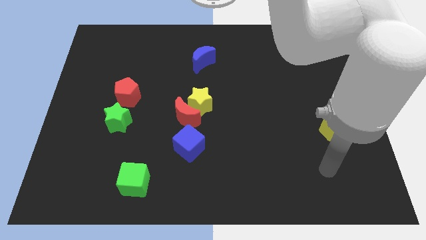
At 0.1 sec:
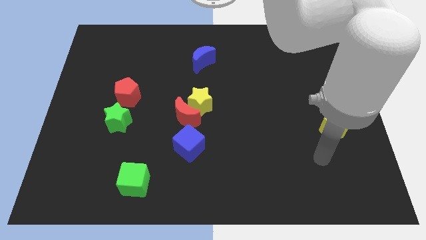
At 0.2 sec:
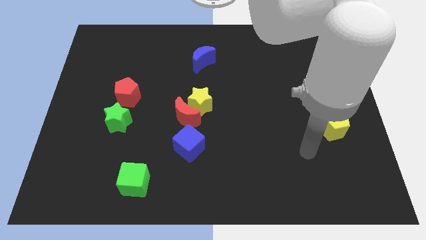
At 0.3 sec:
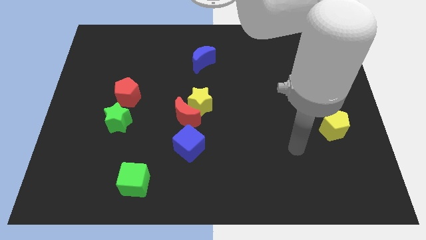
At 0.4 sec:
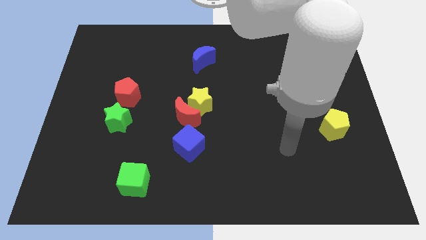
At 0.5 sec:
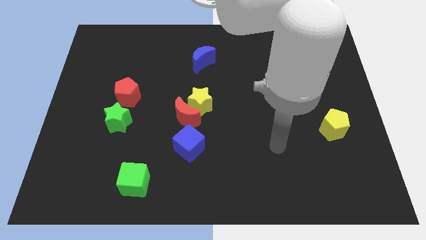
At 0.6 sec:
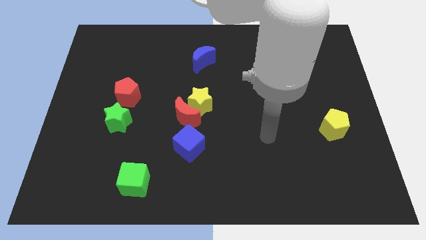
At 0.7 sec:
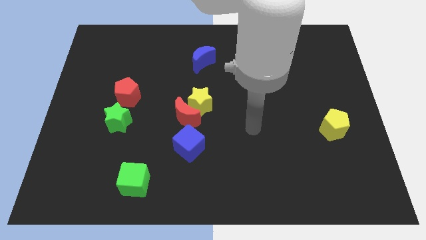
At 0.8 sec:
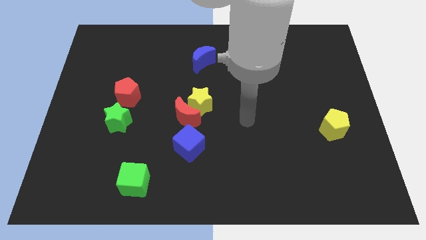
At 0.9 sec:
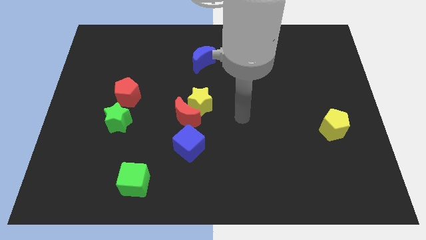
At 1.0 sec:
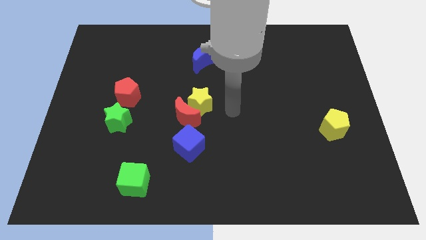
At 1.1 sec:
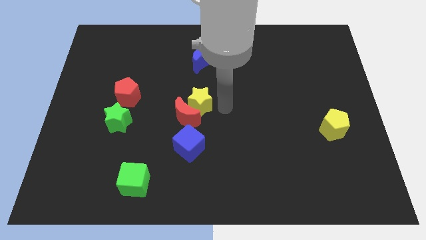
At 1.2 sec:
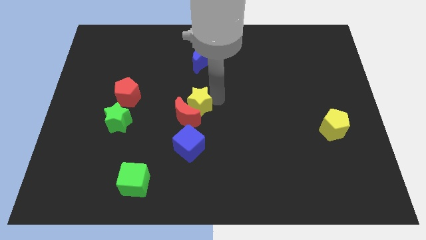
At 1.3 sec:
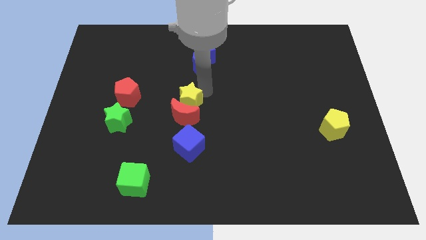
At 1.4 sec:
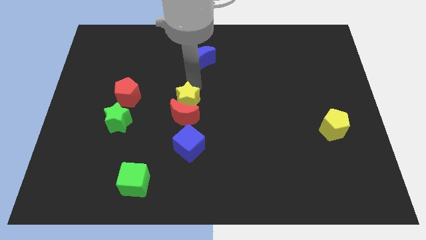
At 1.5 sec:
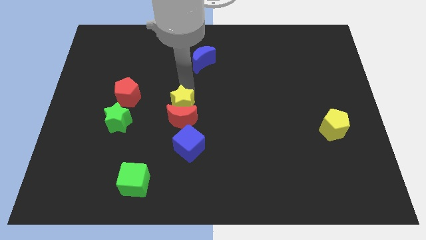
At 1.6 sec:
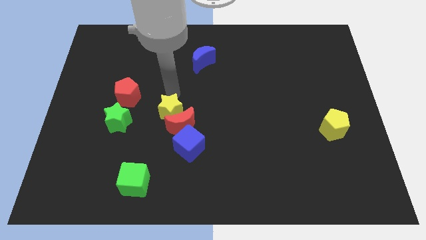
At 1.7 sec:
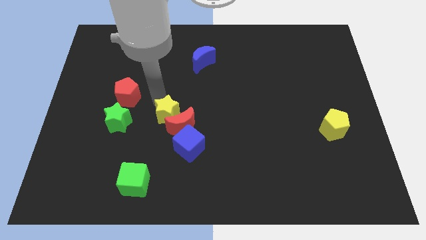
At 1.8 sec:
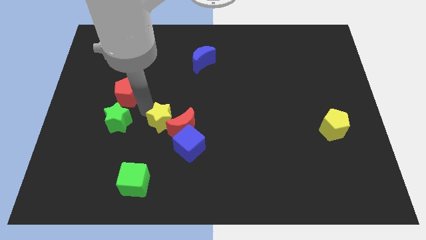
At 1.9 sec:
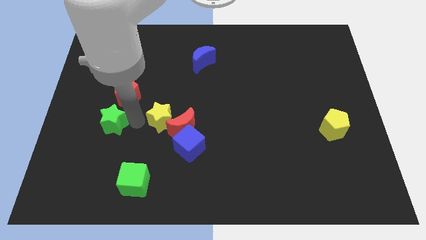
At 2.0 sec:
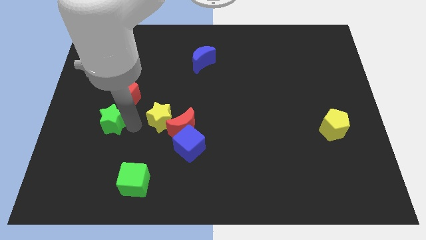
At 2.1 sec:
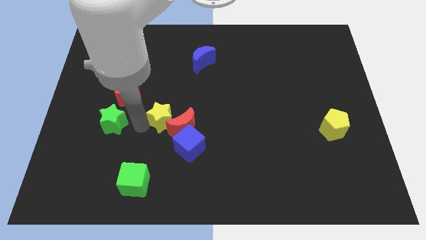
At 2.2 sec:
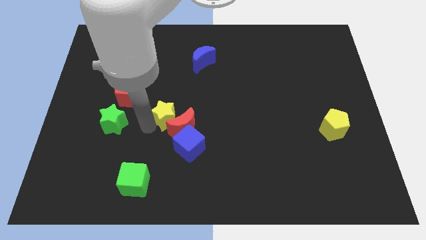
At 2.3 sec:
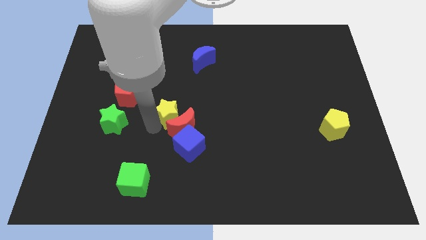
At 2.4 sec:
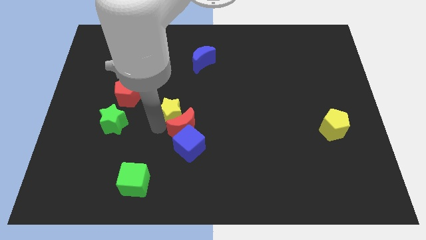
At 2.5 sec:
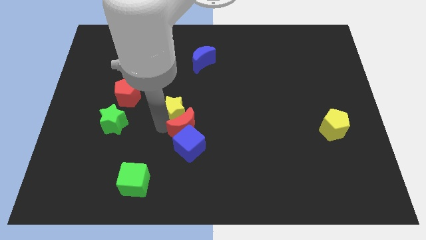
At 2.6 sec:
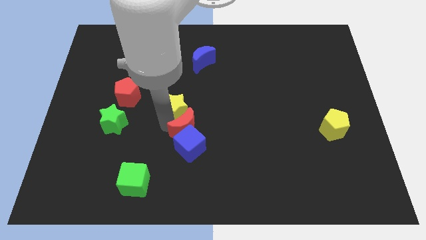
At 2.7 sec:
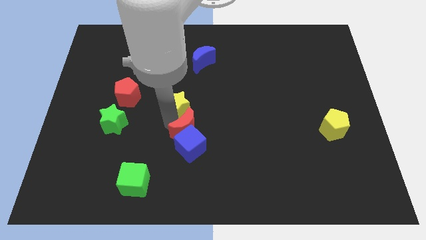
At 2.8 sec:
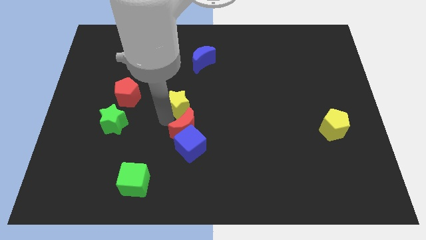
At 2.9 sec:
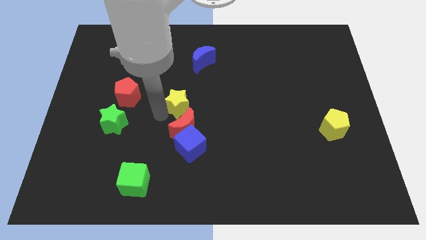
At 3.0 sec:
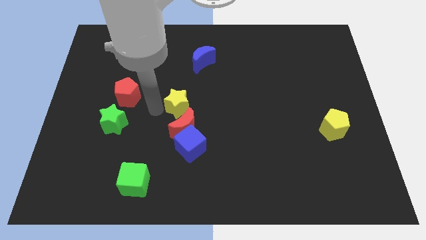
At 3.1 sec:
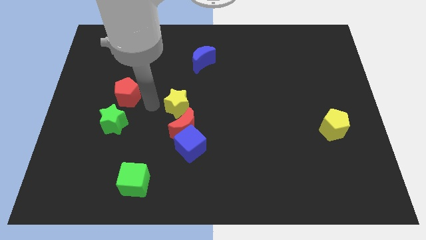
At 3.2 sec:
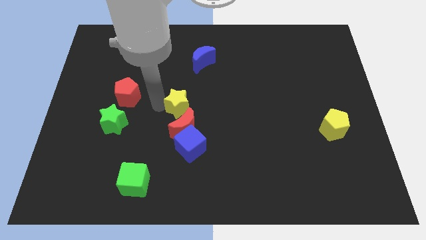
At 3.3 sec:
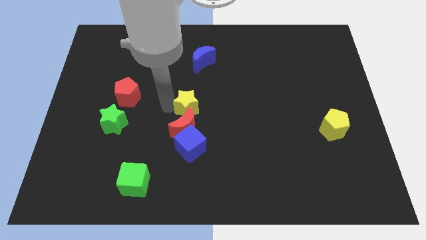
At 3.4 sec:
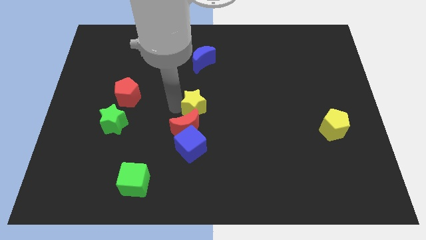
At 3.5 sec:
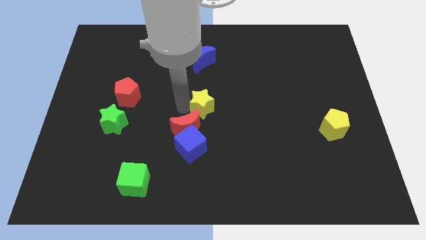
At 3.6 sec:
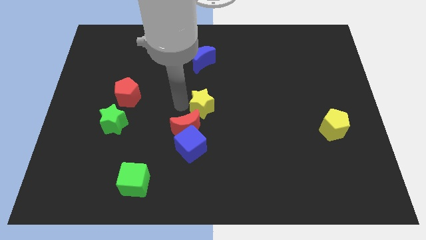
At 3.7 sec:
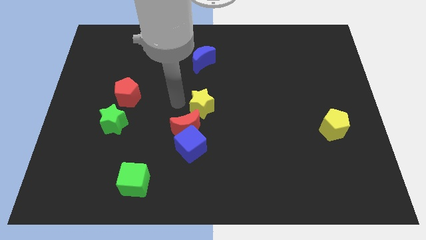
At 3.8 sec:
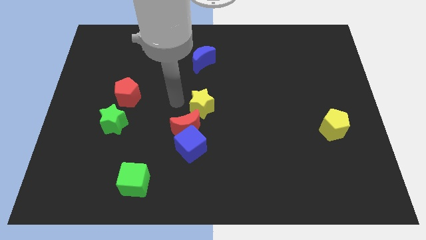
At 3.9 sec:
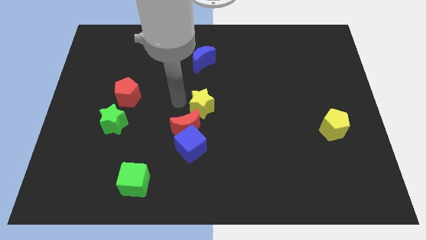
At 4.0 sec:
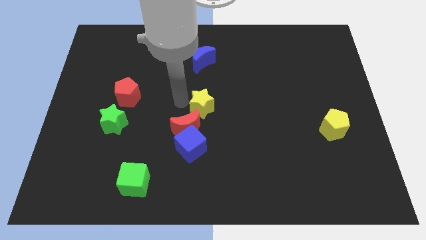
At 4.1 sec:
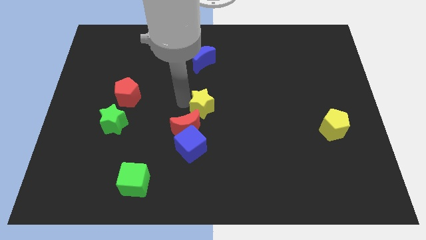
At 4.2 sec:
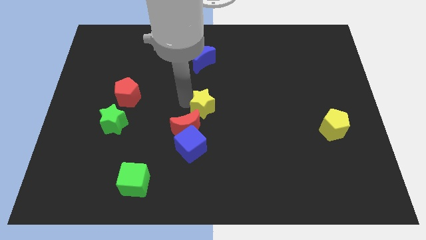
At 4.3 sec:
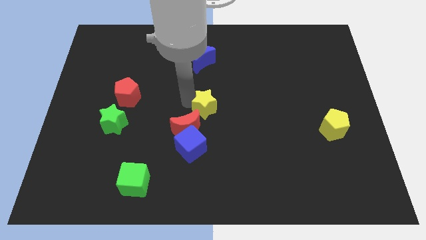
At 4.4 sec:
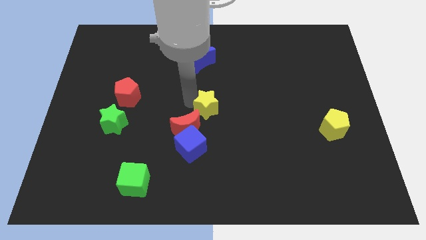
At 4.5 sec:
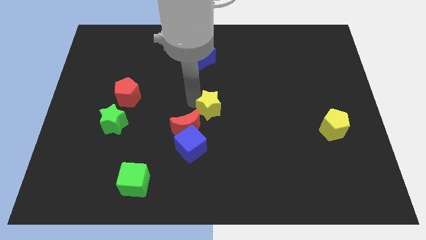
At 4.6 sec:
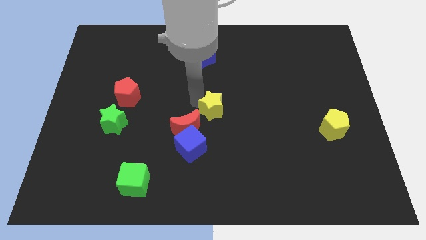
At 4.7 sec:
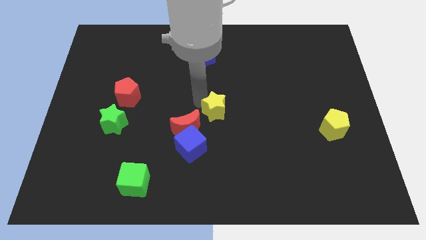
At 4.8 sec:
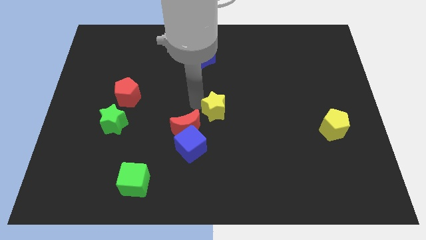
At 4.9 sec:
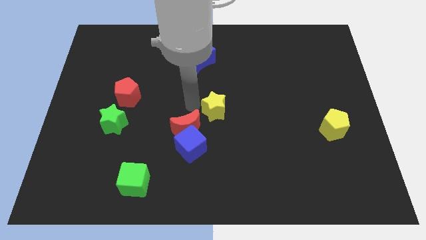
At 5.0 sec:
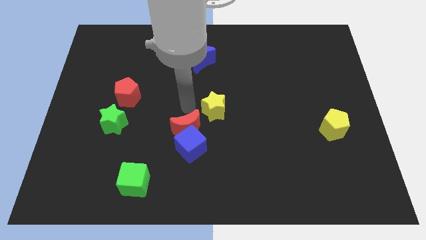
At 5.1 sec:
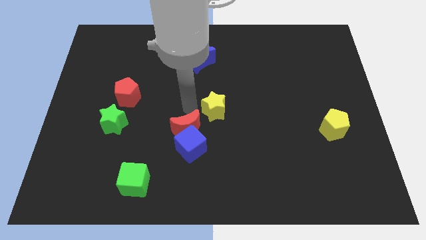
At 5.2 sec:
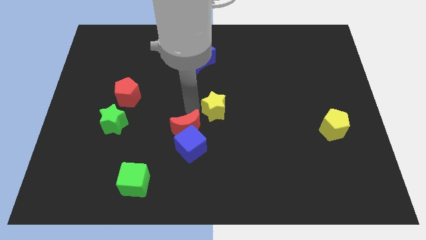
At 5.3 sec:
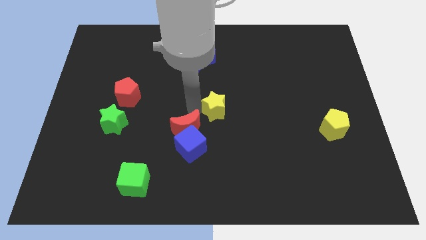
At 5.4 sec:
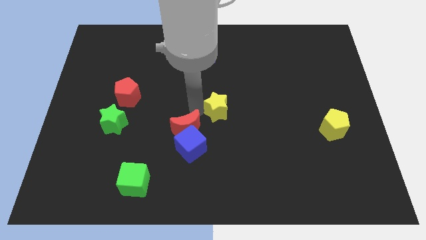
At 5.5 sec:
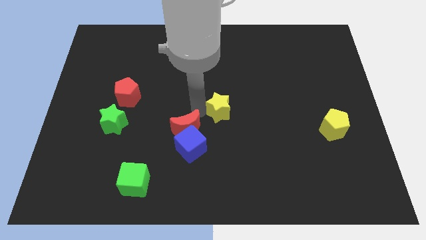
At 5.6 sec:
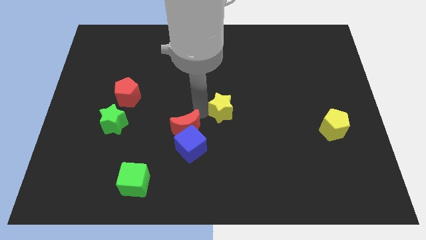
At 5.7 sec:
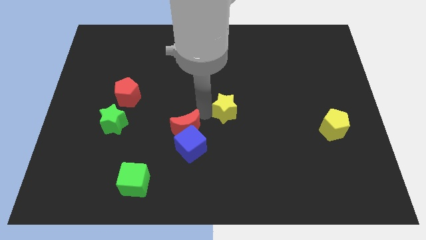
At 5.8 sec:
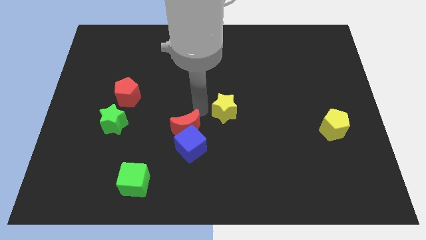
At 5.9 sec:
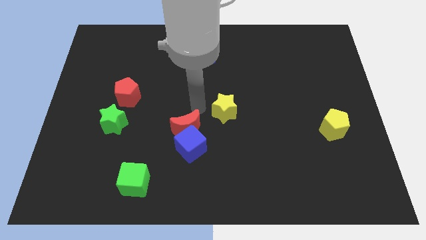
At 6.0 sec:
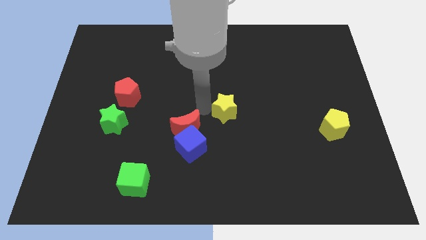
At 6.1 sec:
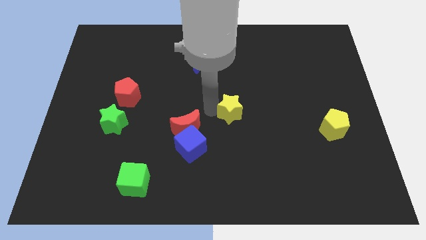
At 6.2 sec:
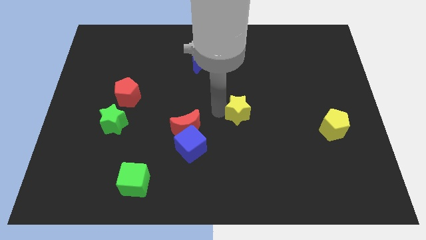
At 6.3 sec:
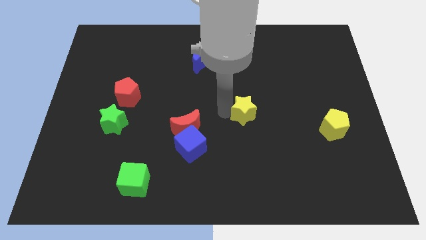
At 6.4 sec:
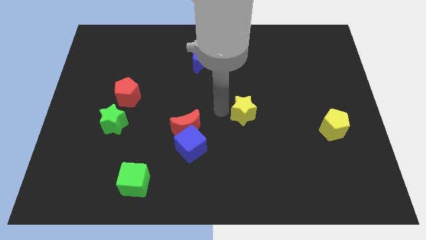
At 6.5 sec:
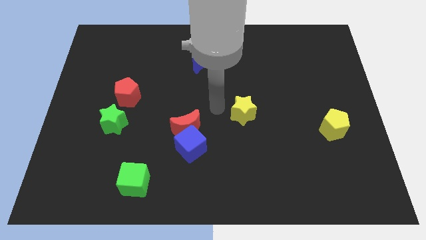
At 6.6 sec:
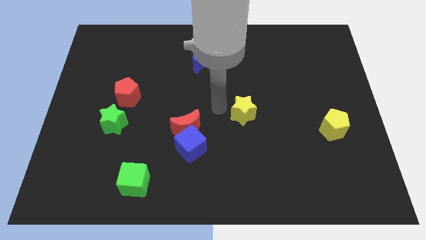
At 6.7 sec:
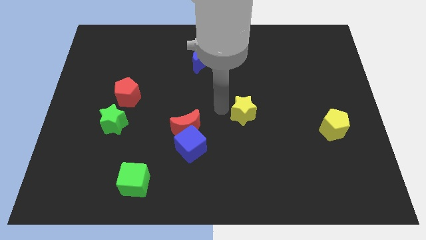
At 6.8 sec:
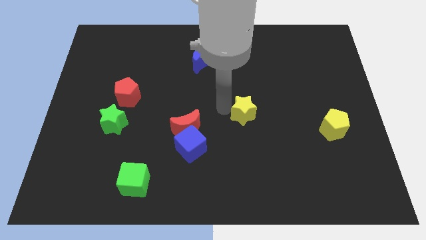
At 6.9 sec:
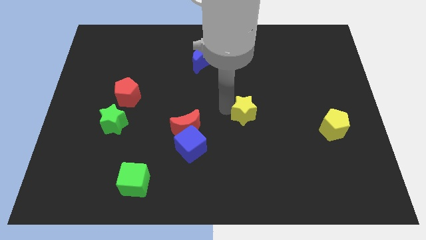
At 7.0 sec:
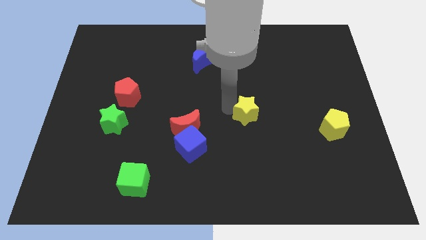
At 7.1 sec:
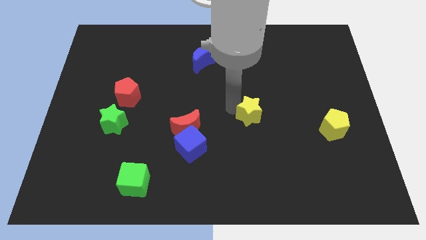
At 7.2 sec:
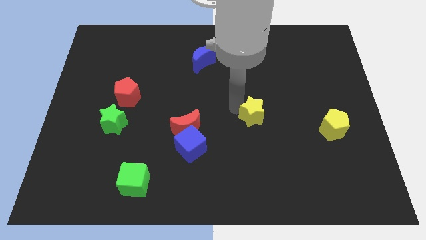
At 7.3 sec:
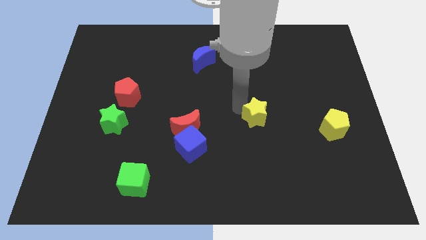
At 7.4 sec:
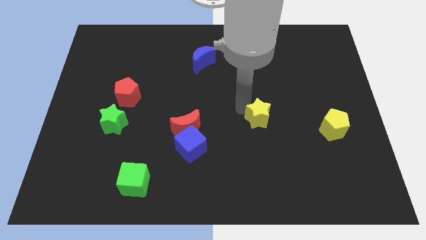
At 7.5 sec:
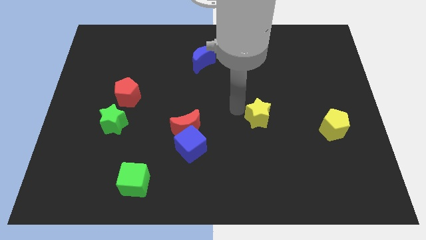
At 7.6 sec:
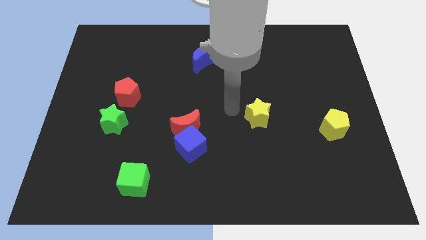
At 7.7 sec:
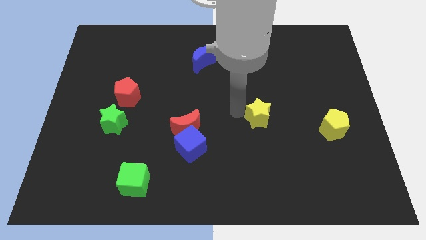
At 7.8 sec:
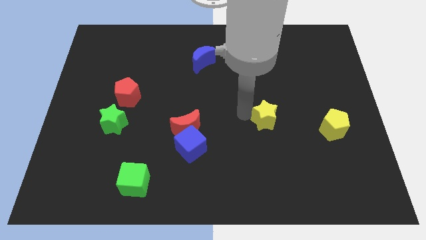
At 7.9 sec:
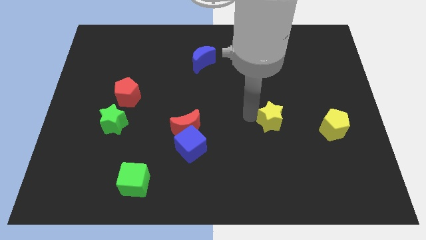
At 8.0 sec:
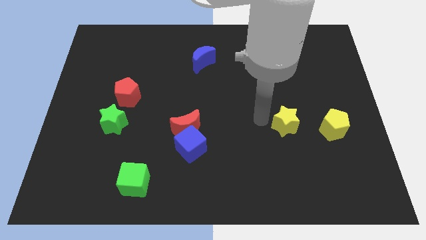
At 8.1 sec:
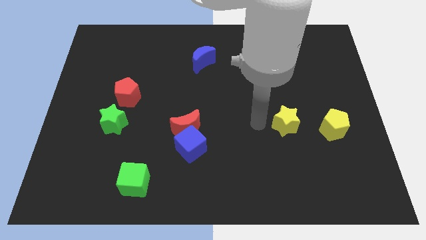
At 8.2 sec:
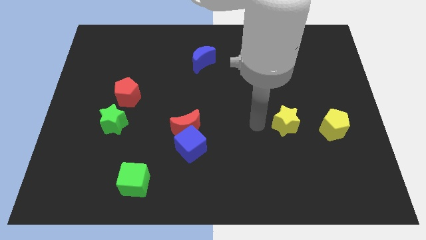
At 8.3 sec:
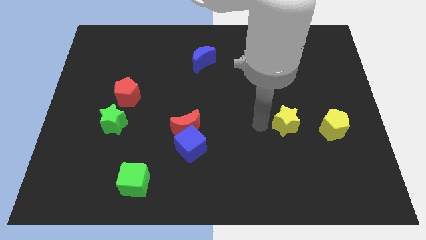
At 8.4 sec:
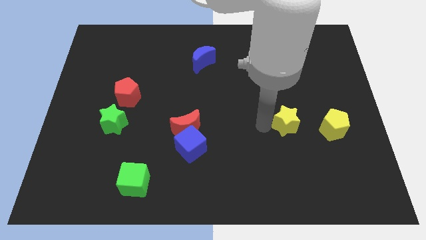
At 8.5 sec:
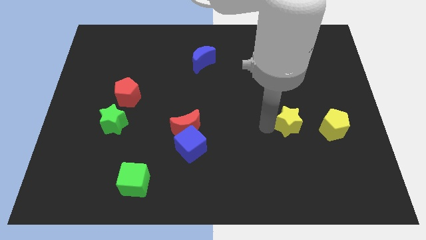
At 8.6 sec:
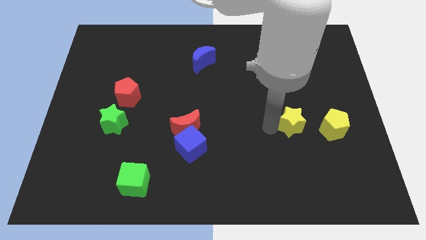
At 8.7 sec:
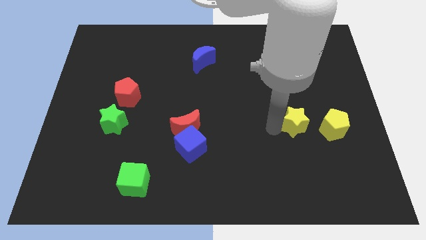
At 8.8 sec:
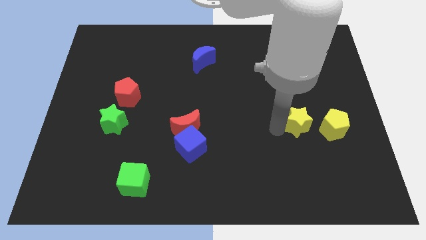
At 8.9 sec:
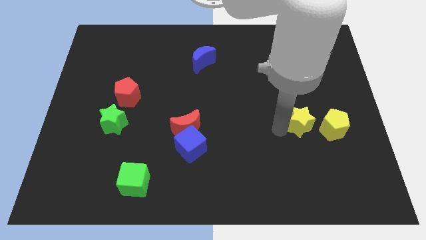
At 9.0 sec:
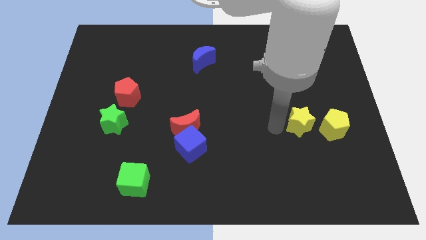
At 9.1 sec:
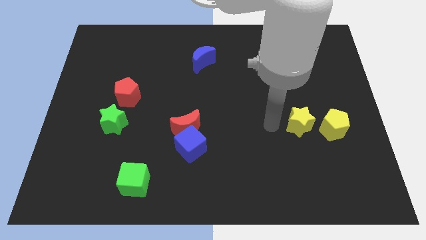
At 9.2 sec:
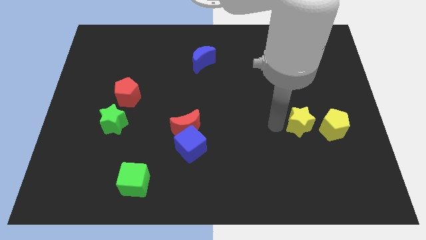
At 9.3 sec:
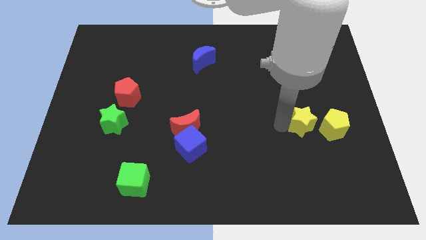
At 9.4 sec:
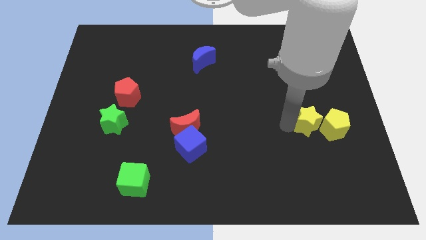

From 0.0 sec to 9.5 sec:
slide the yellow star towards the yellow pentagon
